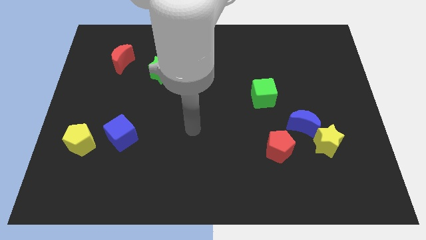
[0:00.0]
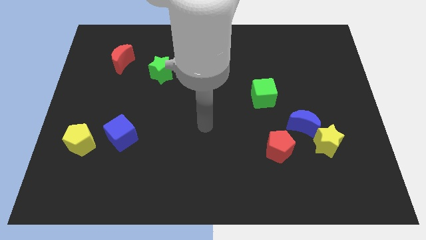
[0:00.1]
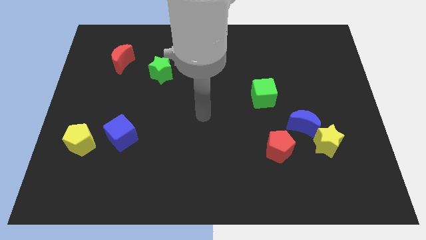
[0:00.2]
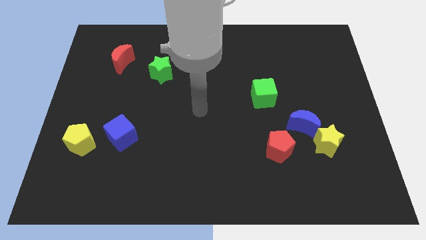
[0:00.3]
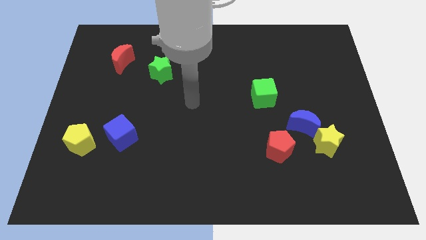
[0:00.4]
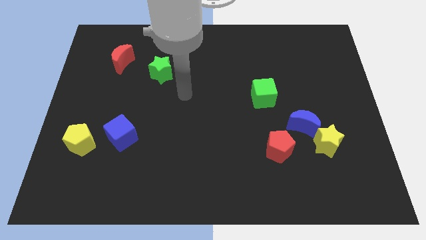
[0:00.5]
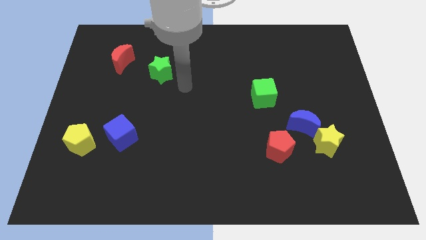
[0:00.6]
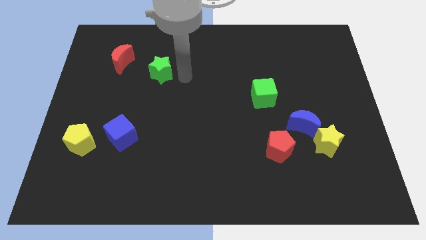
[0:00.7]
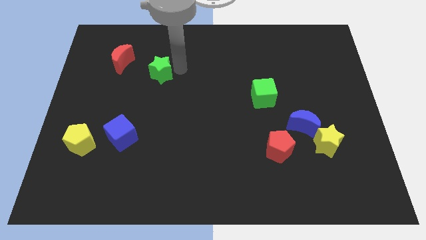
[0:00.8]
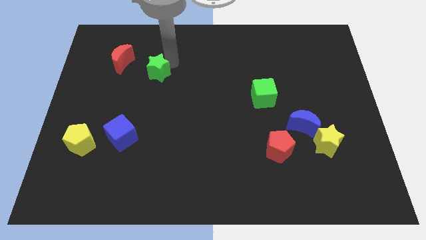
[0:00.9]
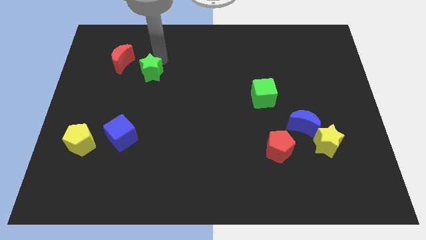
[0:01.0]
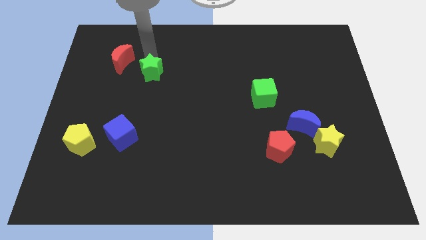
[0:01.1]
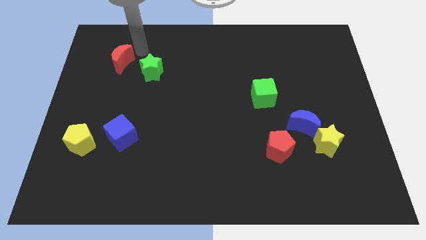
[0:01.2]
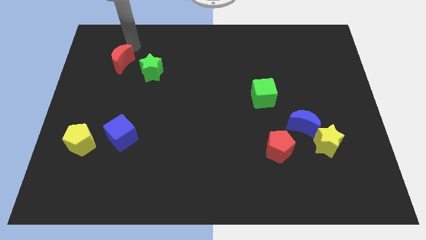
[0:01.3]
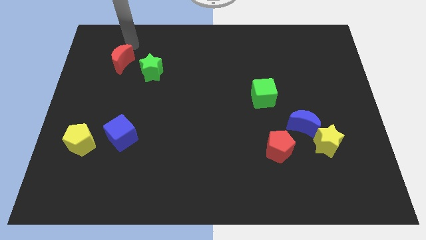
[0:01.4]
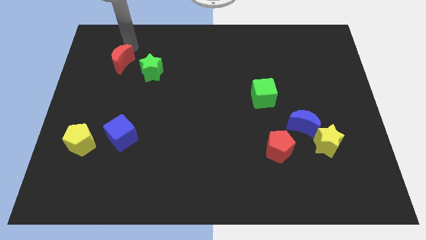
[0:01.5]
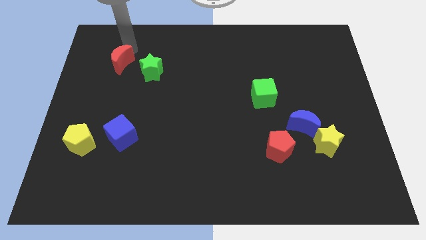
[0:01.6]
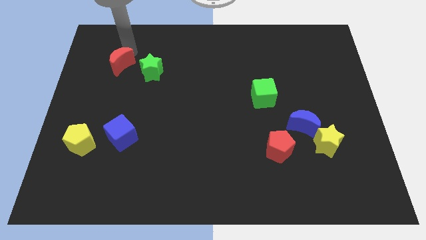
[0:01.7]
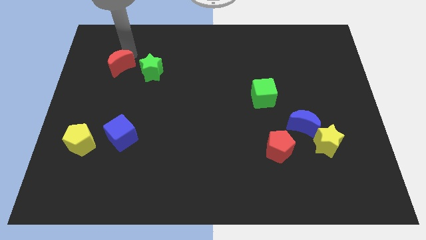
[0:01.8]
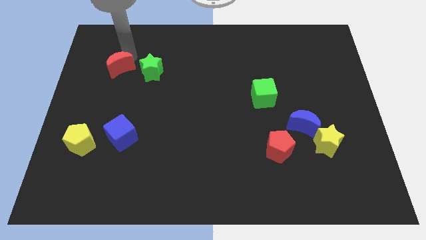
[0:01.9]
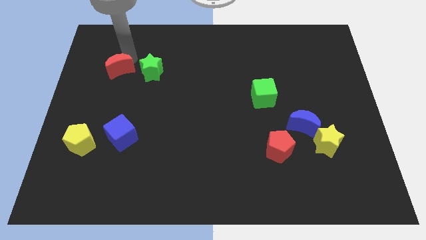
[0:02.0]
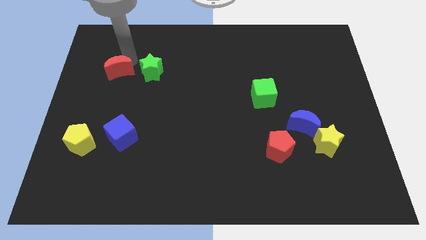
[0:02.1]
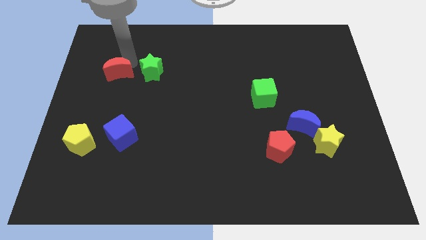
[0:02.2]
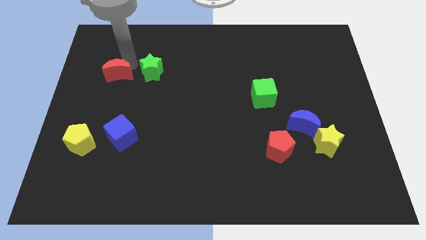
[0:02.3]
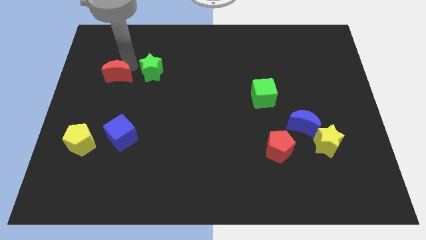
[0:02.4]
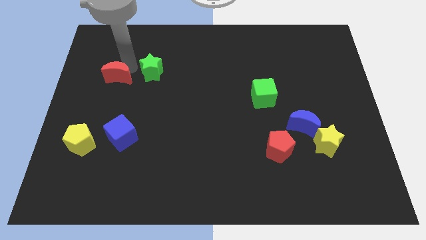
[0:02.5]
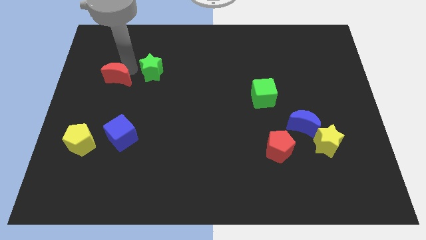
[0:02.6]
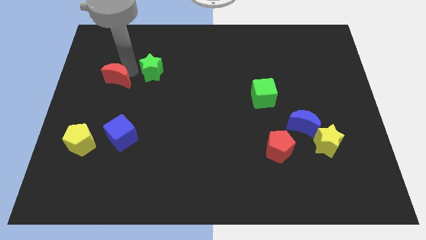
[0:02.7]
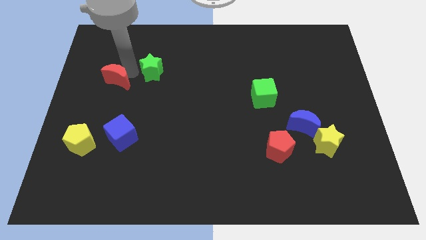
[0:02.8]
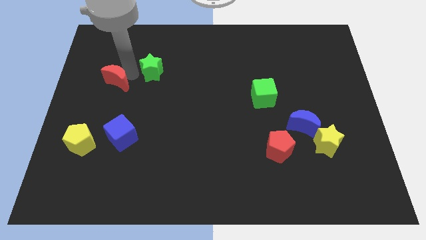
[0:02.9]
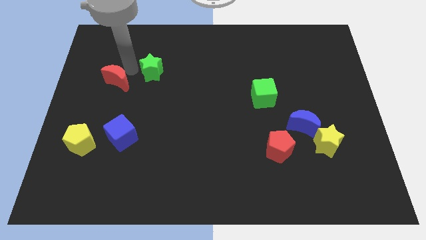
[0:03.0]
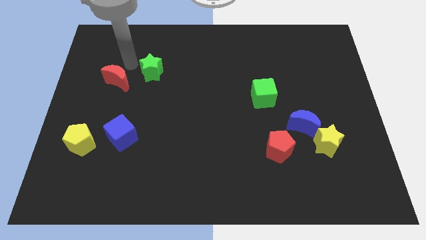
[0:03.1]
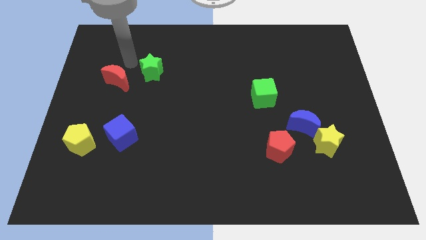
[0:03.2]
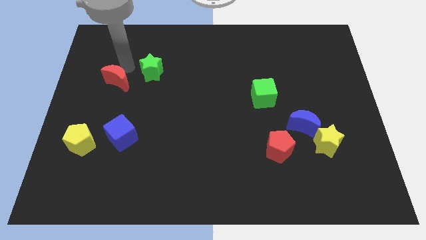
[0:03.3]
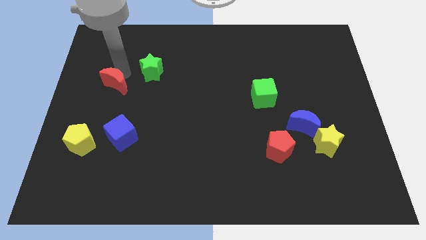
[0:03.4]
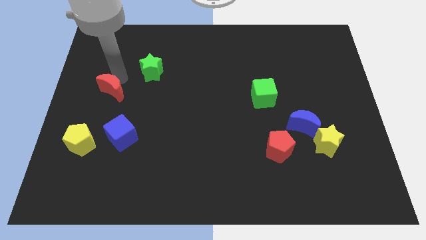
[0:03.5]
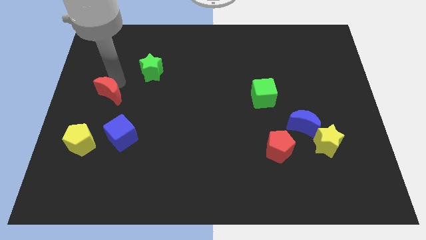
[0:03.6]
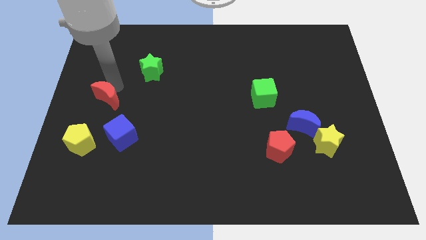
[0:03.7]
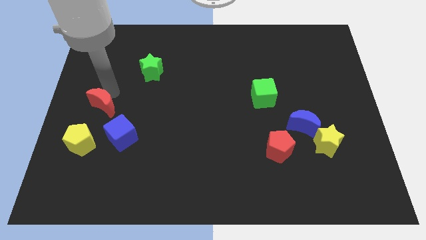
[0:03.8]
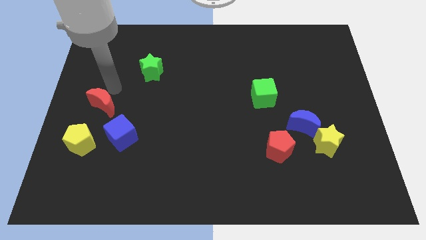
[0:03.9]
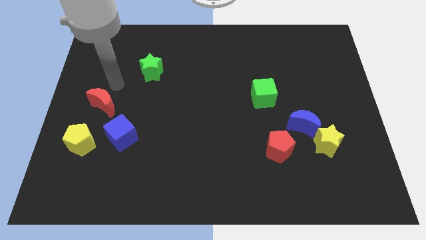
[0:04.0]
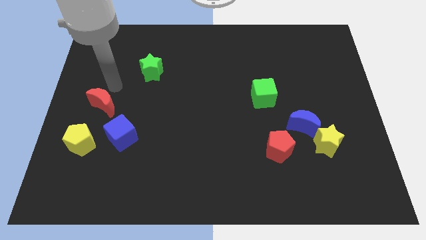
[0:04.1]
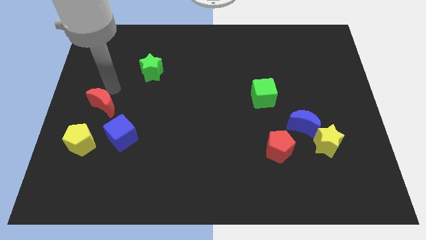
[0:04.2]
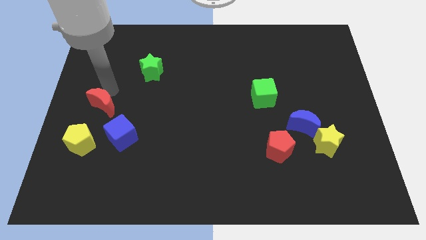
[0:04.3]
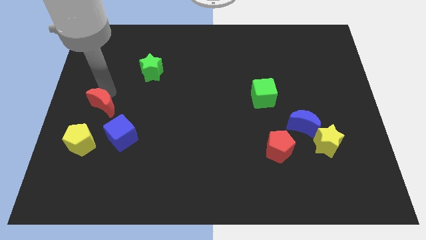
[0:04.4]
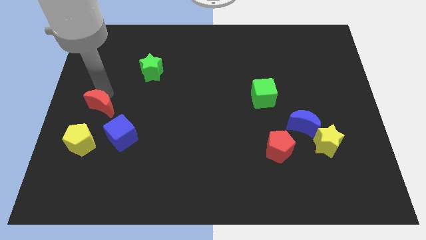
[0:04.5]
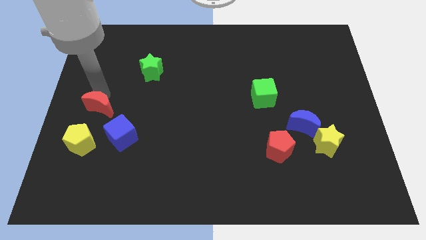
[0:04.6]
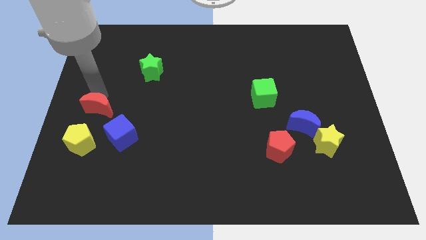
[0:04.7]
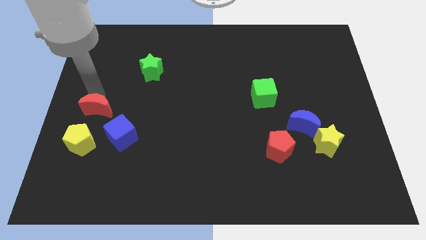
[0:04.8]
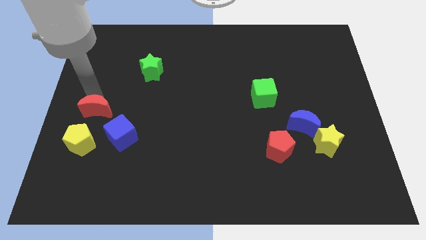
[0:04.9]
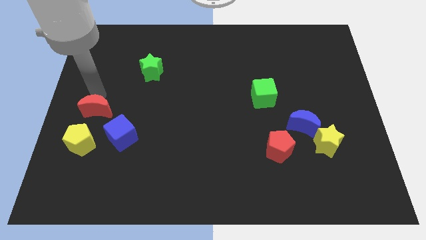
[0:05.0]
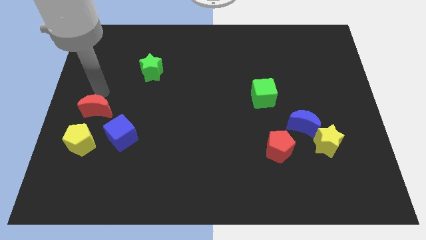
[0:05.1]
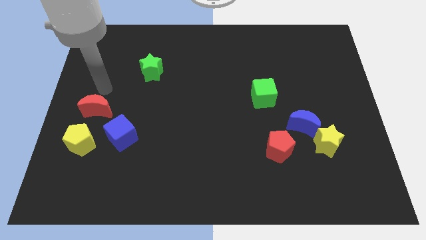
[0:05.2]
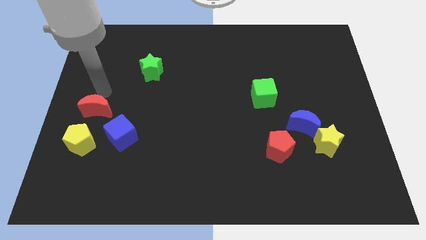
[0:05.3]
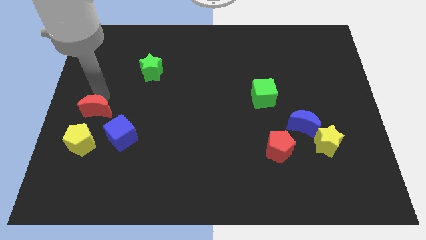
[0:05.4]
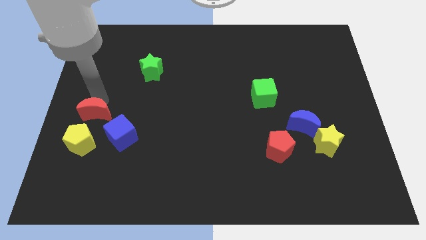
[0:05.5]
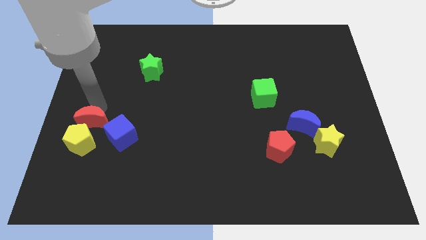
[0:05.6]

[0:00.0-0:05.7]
move the red moon close to the yellow pentagon

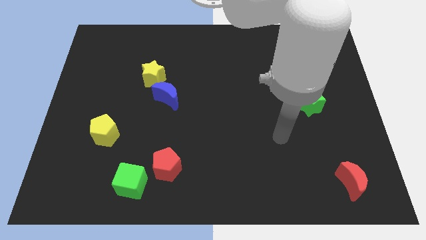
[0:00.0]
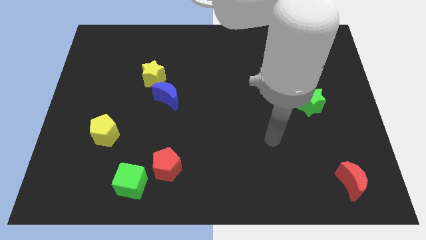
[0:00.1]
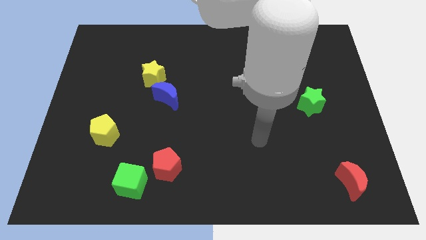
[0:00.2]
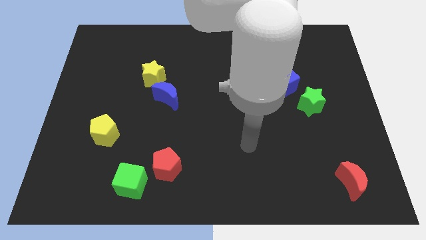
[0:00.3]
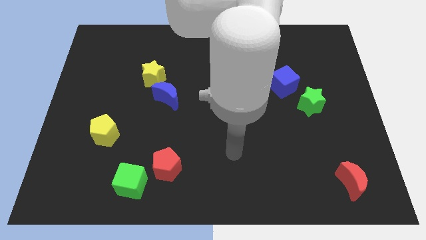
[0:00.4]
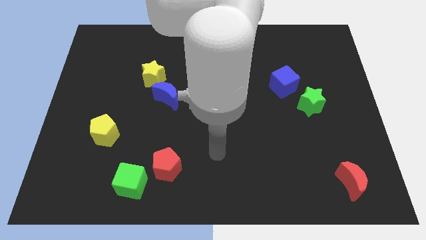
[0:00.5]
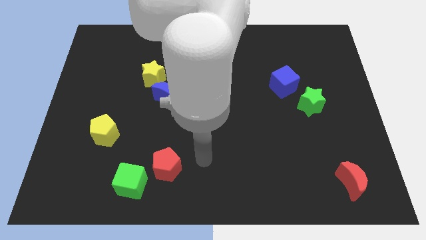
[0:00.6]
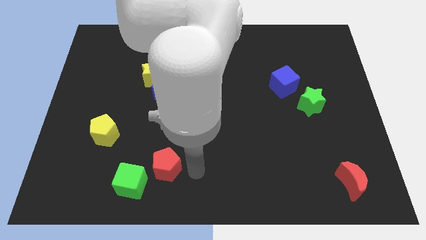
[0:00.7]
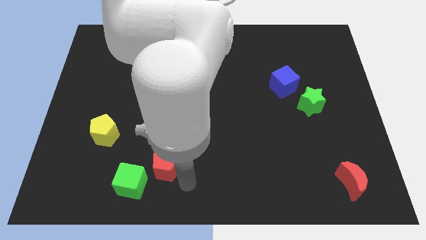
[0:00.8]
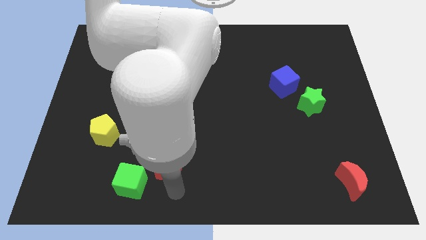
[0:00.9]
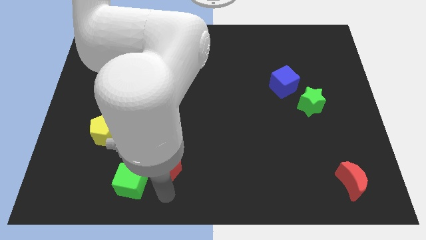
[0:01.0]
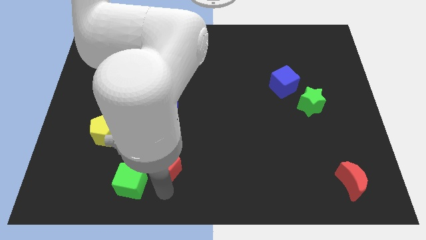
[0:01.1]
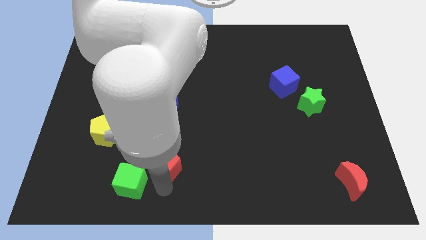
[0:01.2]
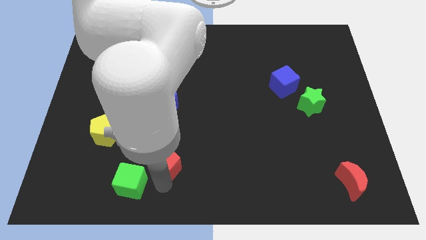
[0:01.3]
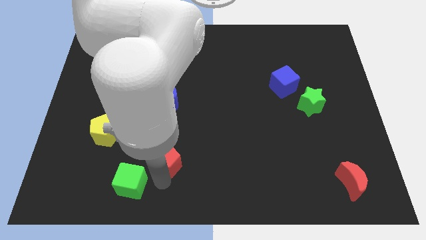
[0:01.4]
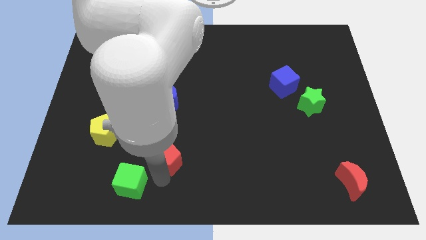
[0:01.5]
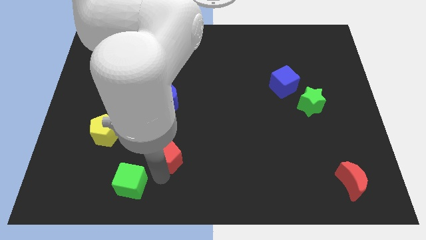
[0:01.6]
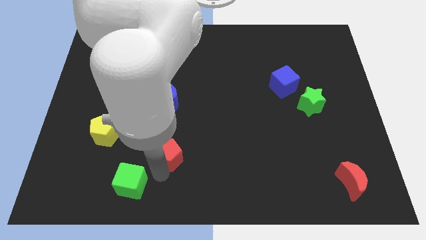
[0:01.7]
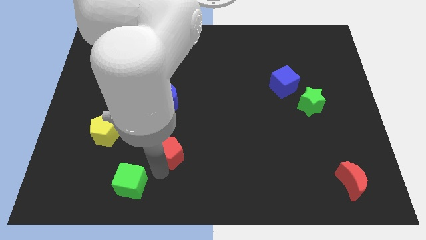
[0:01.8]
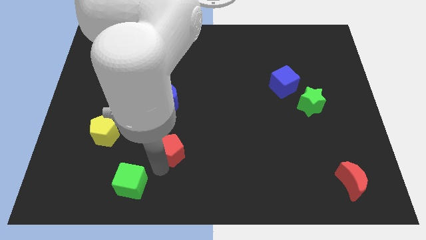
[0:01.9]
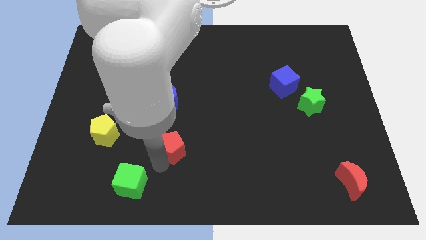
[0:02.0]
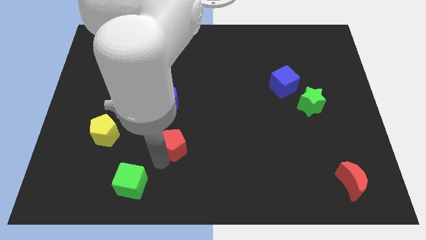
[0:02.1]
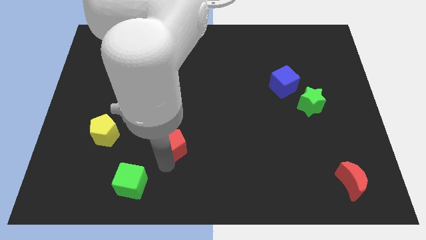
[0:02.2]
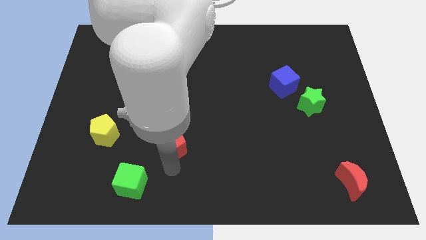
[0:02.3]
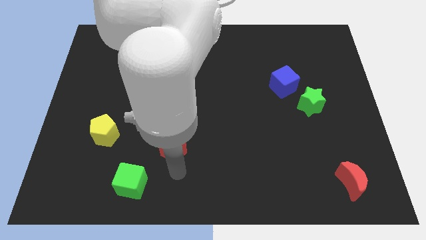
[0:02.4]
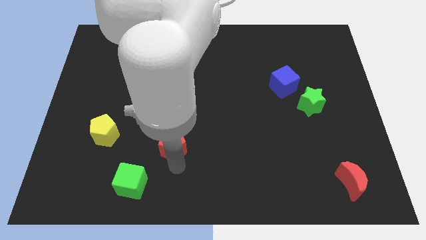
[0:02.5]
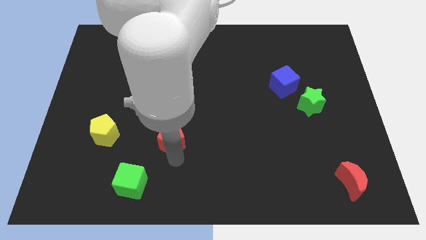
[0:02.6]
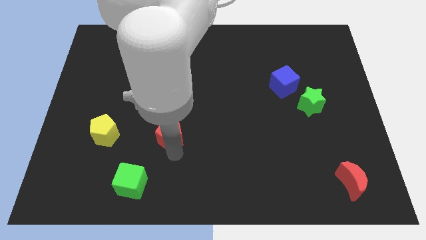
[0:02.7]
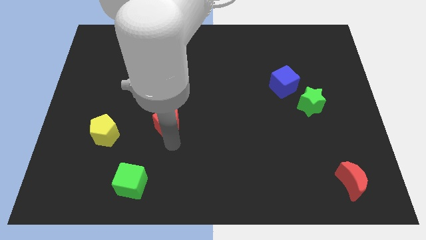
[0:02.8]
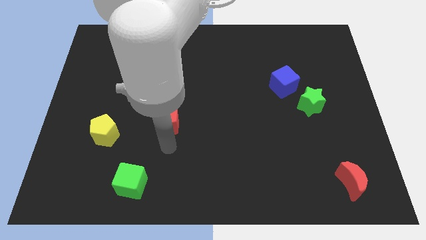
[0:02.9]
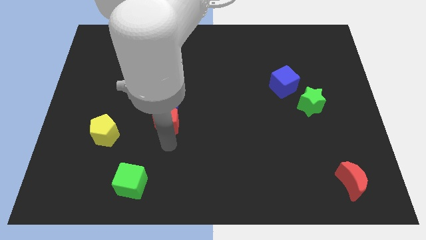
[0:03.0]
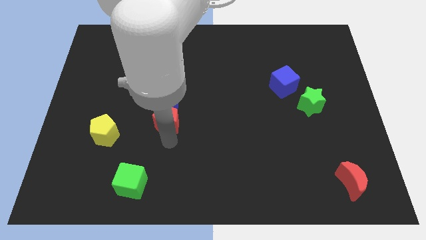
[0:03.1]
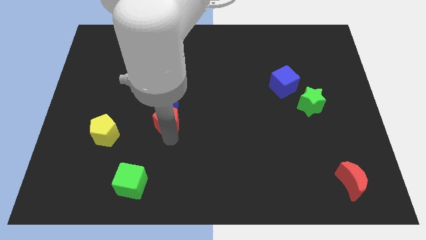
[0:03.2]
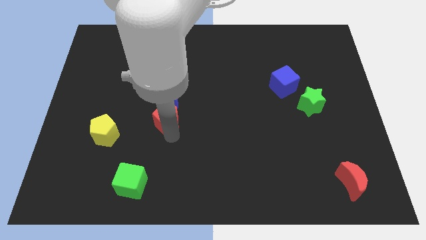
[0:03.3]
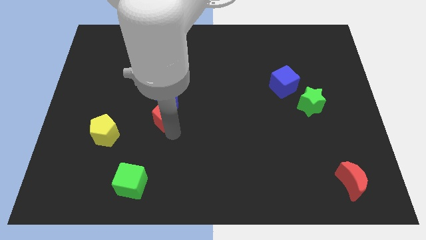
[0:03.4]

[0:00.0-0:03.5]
put the red pentagon to the blue moon
